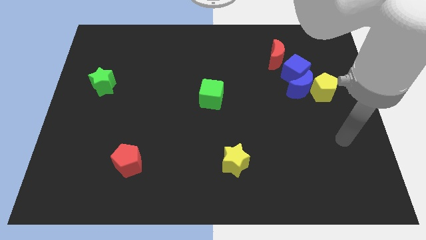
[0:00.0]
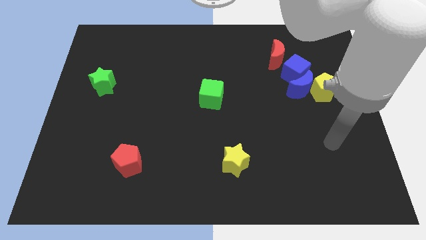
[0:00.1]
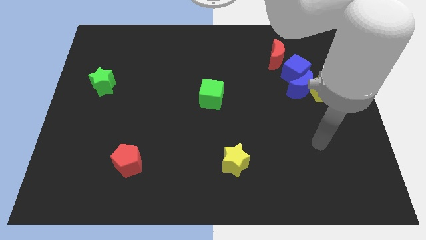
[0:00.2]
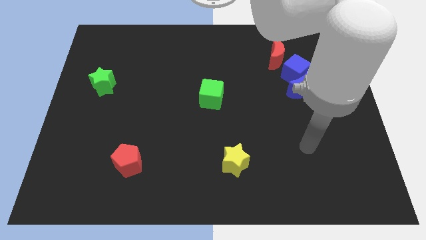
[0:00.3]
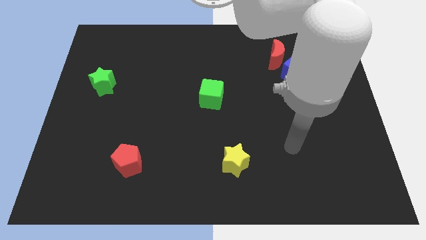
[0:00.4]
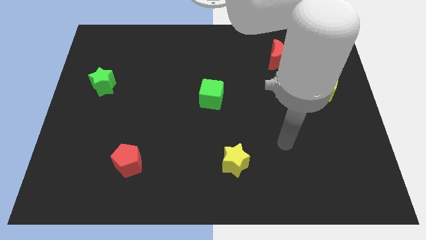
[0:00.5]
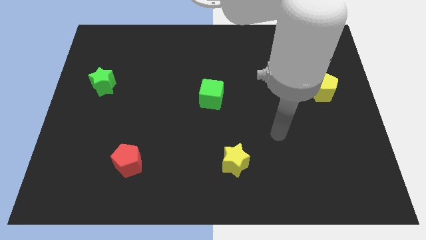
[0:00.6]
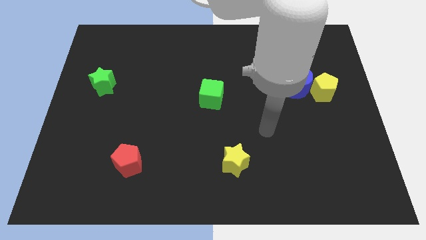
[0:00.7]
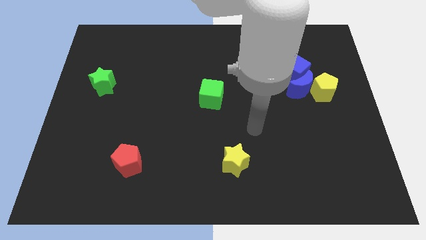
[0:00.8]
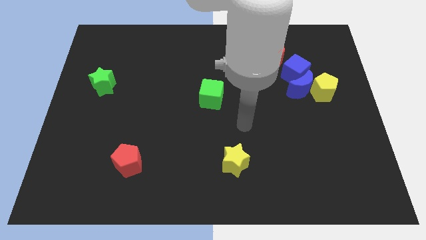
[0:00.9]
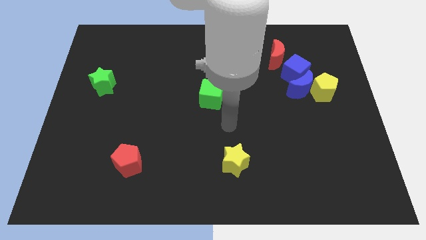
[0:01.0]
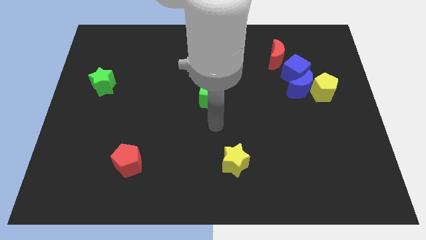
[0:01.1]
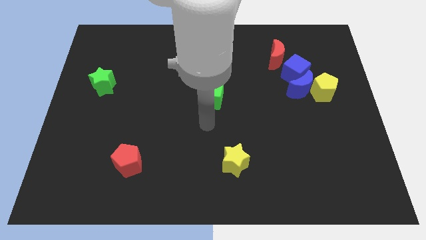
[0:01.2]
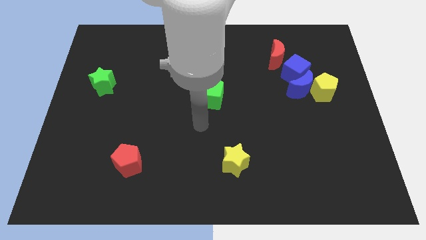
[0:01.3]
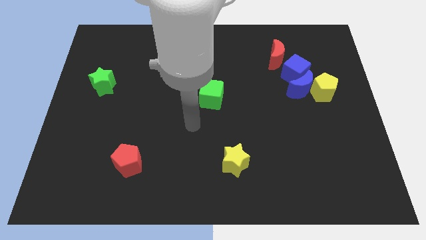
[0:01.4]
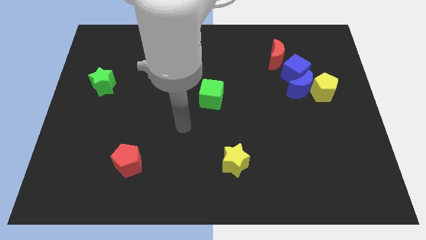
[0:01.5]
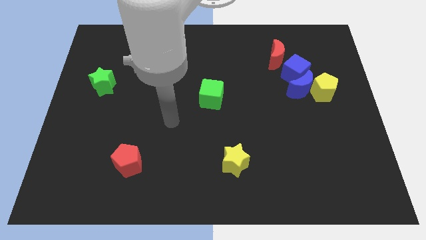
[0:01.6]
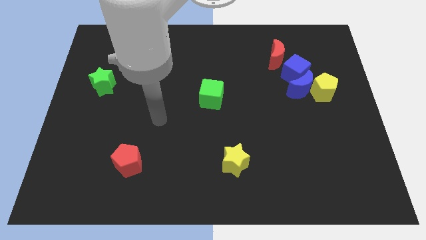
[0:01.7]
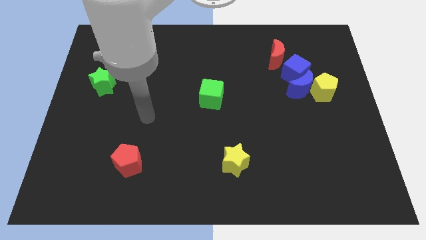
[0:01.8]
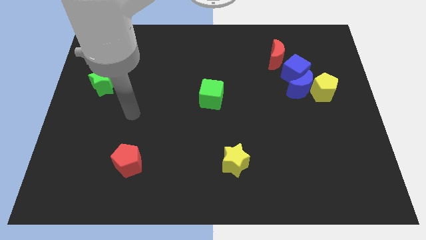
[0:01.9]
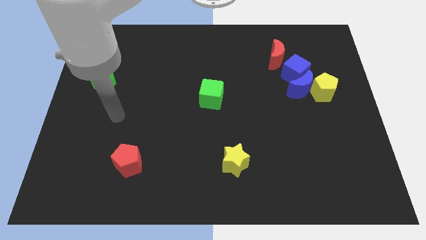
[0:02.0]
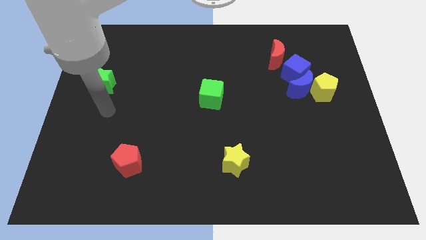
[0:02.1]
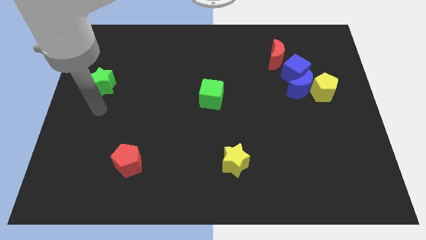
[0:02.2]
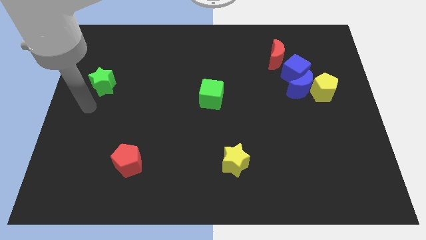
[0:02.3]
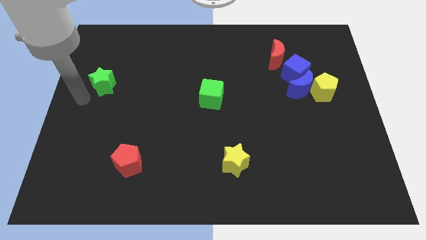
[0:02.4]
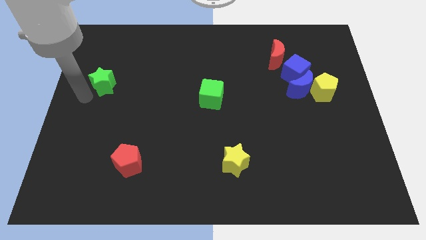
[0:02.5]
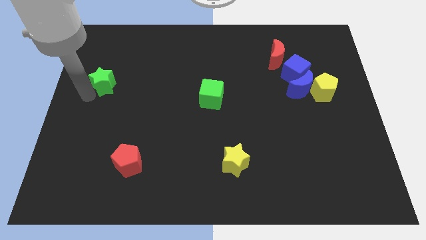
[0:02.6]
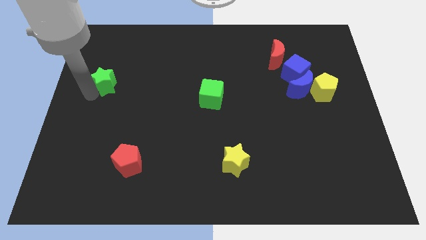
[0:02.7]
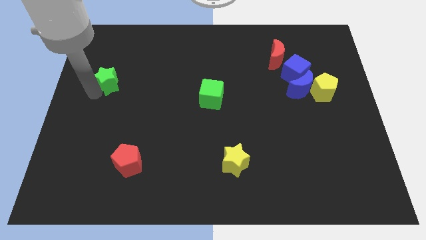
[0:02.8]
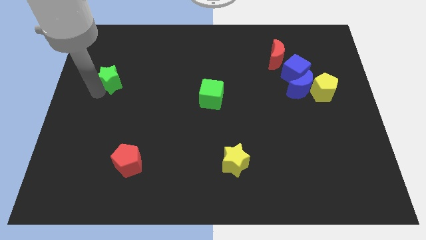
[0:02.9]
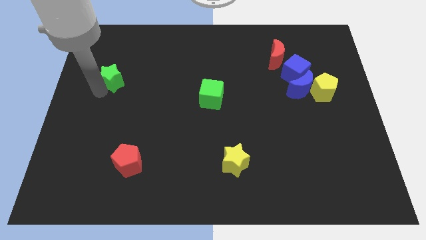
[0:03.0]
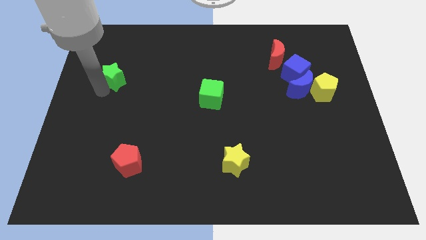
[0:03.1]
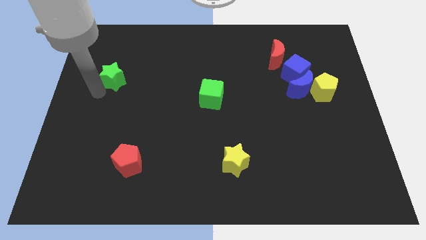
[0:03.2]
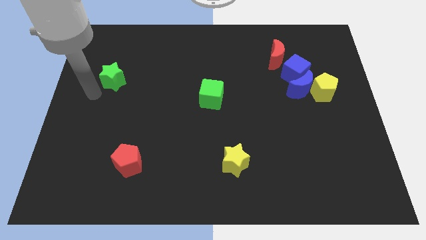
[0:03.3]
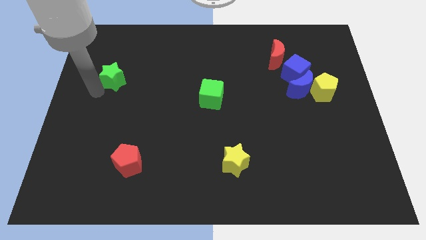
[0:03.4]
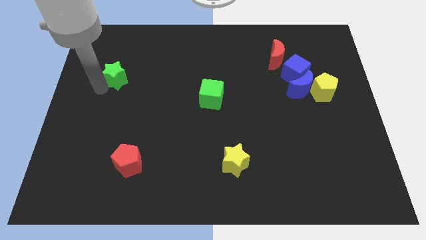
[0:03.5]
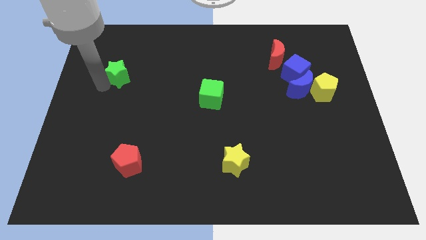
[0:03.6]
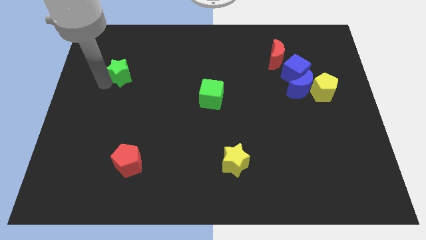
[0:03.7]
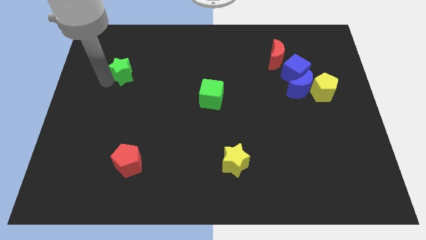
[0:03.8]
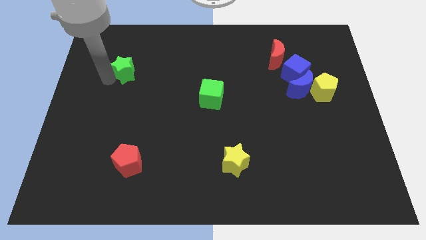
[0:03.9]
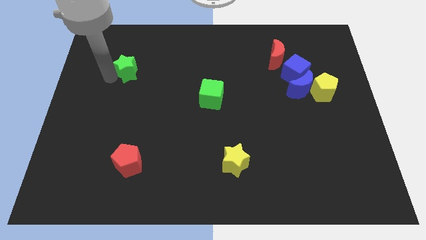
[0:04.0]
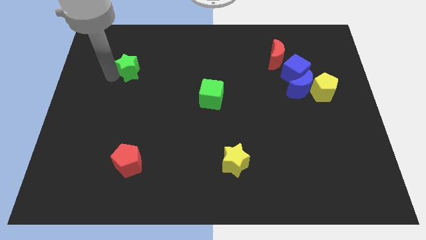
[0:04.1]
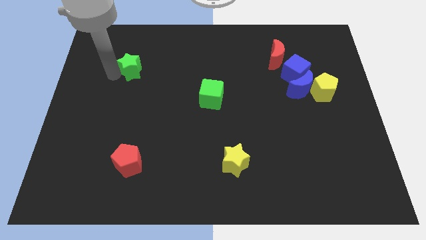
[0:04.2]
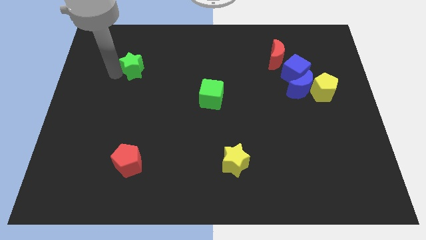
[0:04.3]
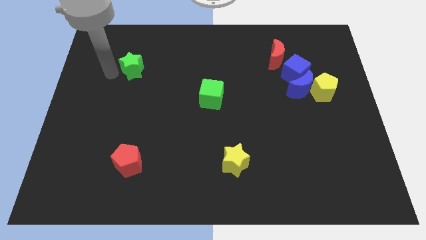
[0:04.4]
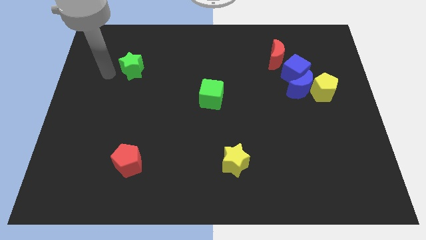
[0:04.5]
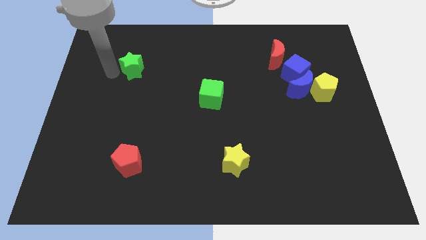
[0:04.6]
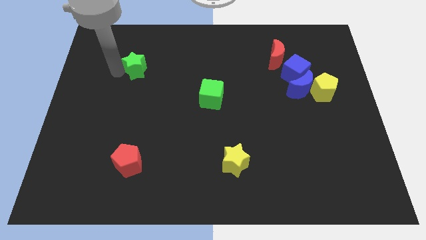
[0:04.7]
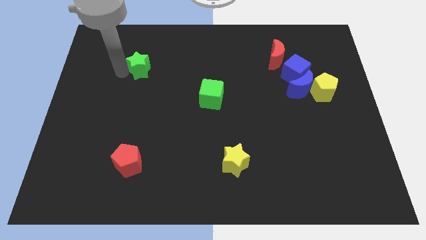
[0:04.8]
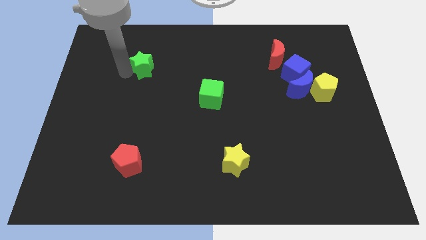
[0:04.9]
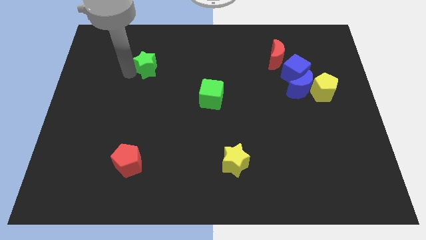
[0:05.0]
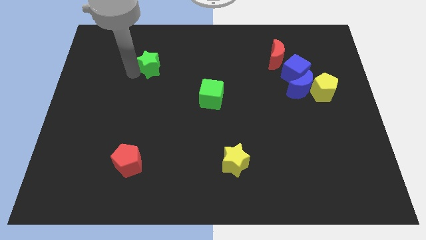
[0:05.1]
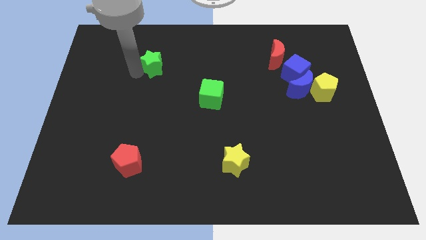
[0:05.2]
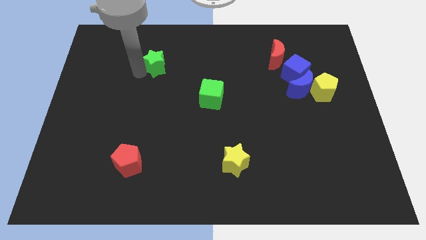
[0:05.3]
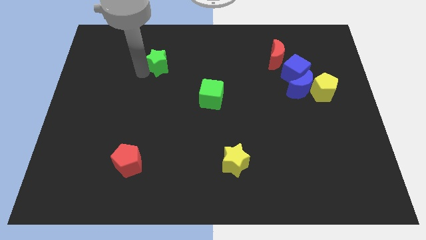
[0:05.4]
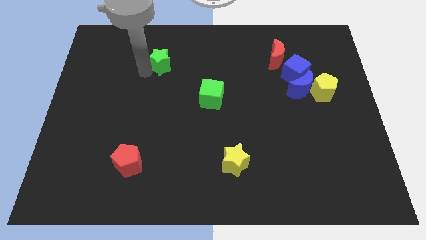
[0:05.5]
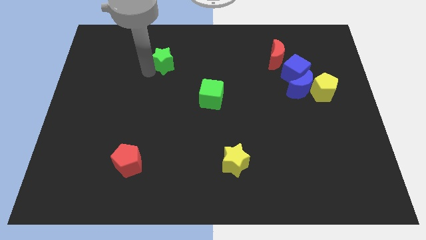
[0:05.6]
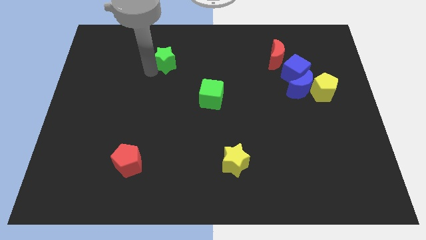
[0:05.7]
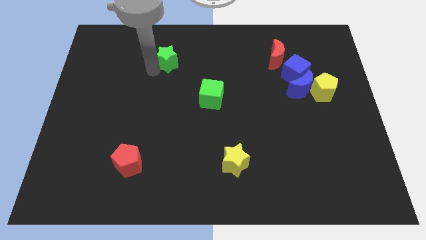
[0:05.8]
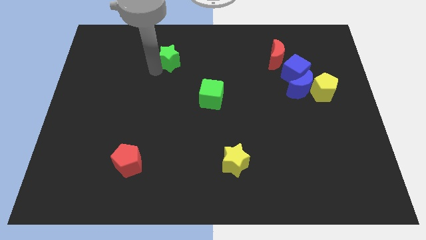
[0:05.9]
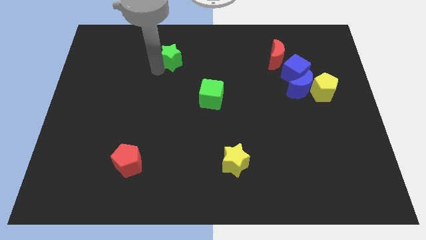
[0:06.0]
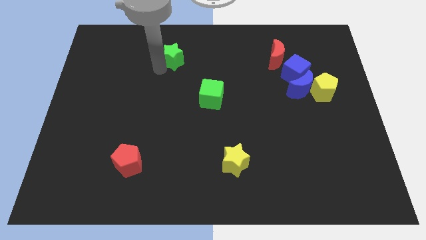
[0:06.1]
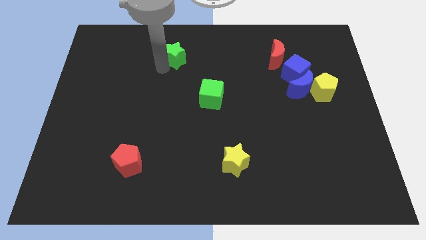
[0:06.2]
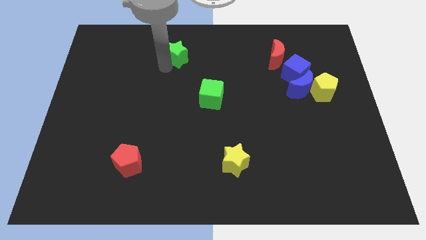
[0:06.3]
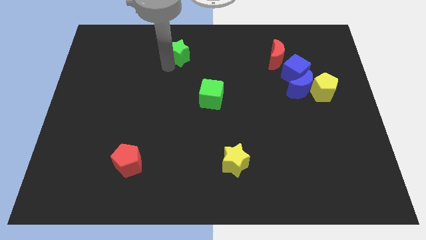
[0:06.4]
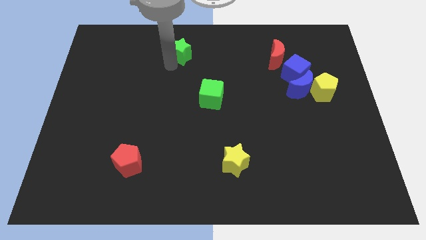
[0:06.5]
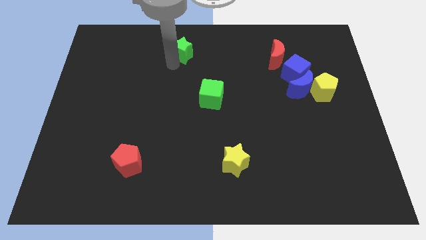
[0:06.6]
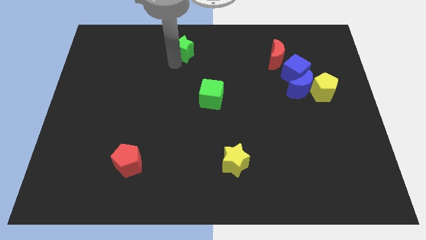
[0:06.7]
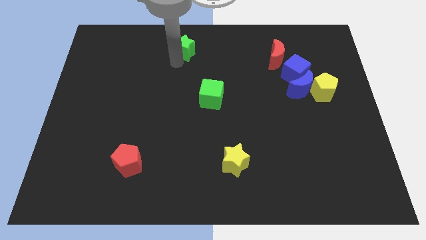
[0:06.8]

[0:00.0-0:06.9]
slide the green star to the towards your base
